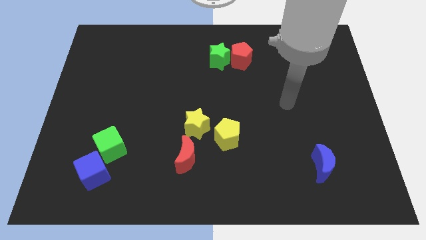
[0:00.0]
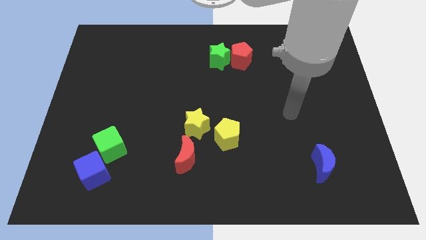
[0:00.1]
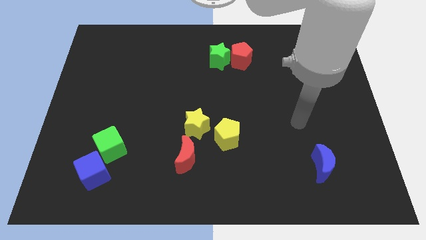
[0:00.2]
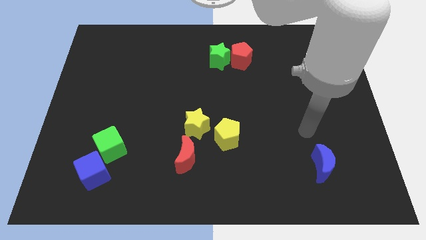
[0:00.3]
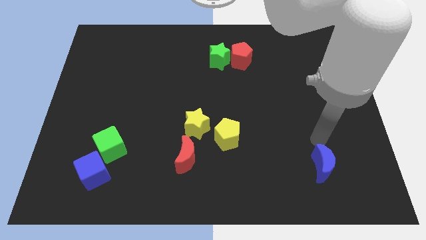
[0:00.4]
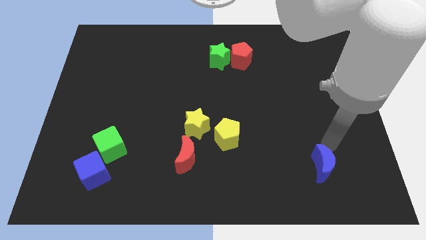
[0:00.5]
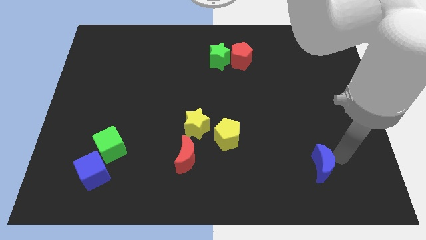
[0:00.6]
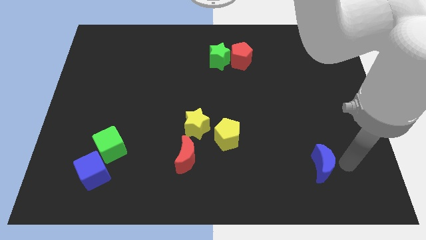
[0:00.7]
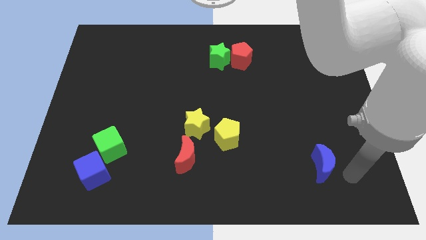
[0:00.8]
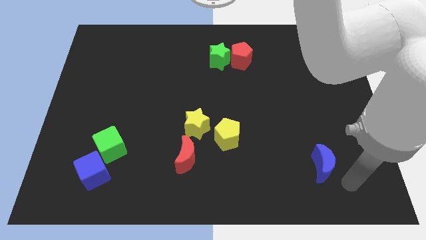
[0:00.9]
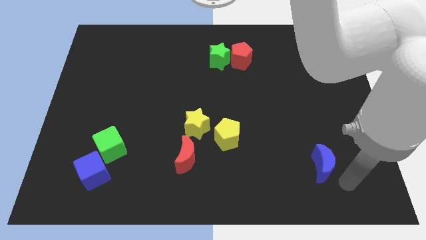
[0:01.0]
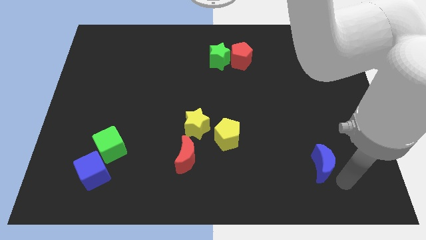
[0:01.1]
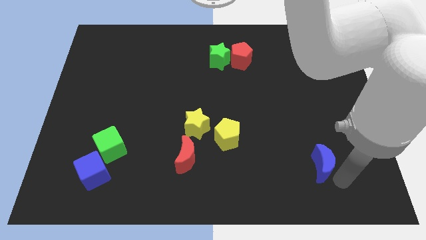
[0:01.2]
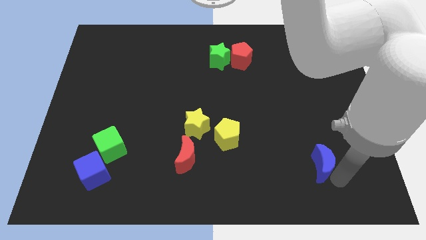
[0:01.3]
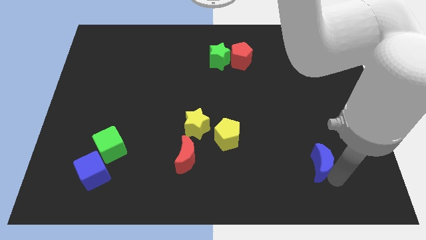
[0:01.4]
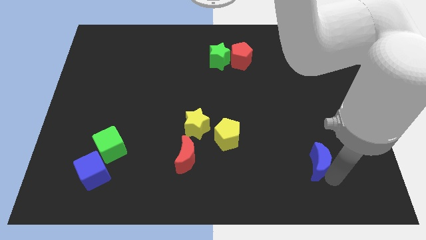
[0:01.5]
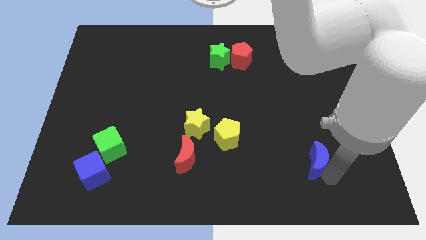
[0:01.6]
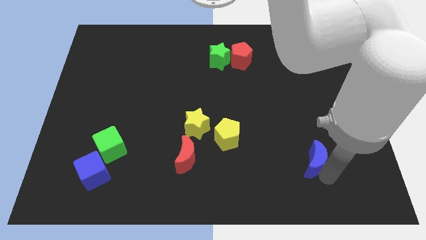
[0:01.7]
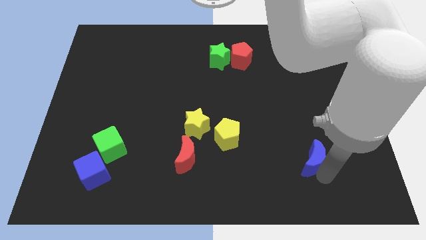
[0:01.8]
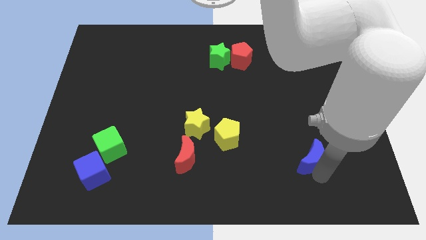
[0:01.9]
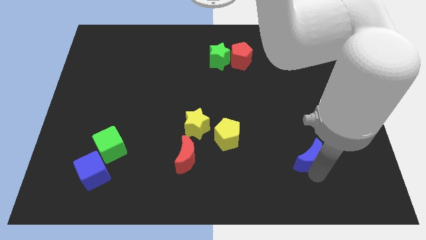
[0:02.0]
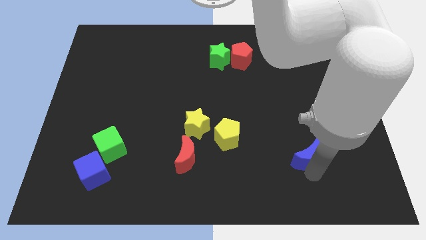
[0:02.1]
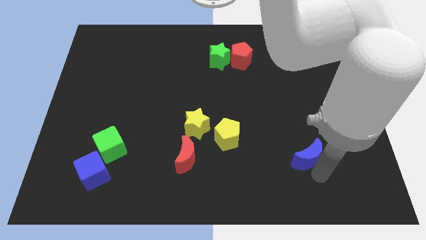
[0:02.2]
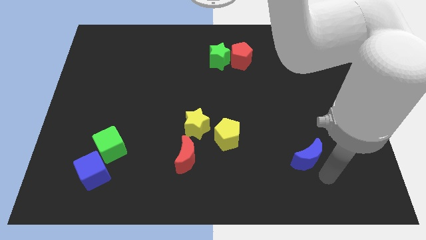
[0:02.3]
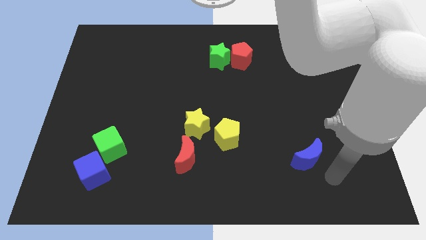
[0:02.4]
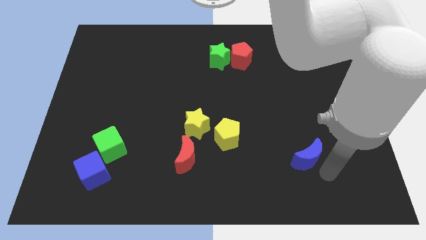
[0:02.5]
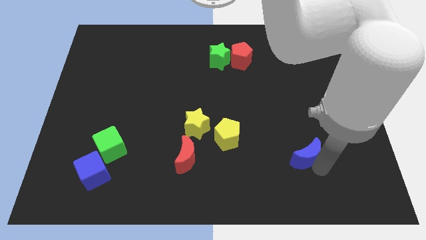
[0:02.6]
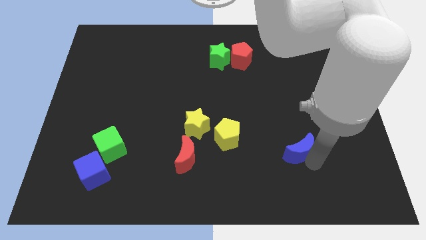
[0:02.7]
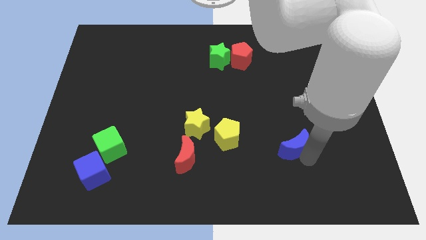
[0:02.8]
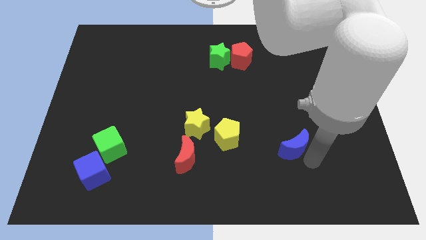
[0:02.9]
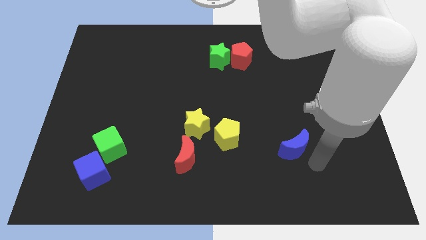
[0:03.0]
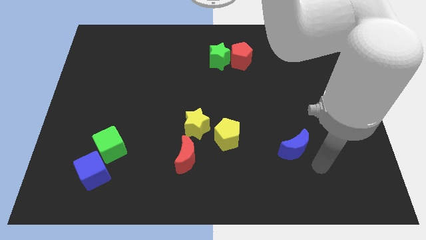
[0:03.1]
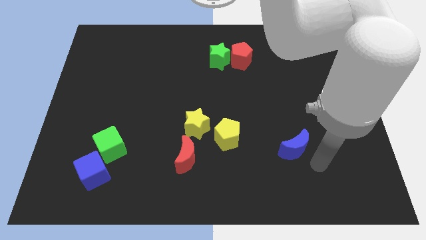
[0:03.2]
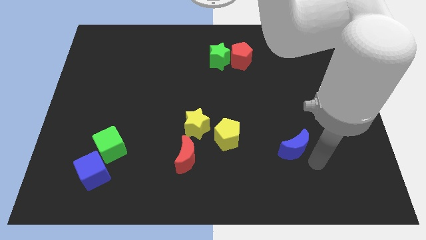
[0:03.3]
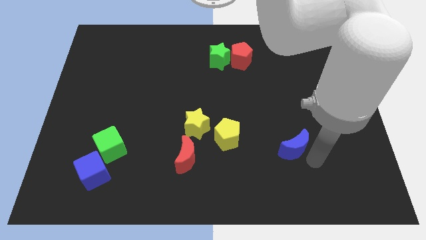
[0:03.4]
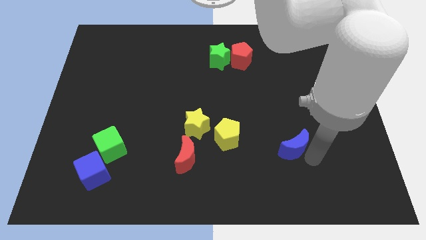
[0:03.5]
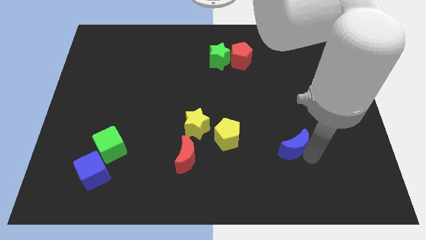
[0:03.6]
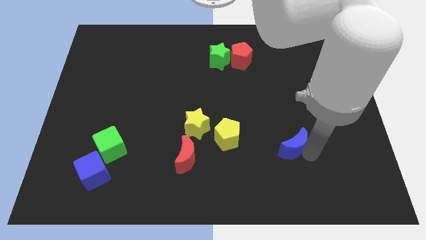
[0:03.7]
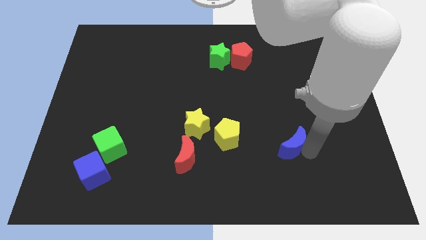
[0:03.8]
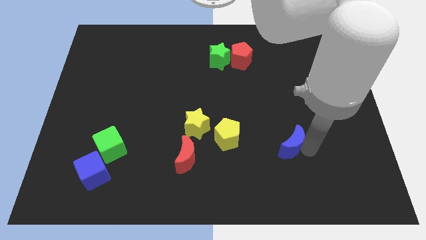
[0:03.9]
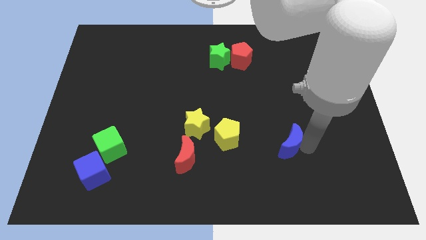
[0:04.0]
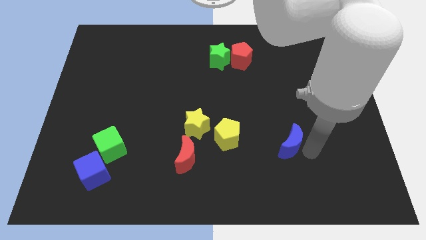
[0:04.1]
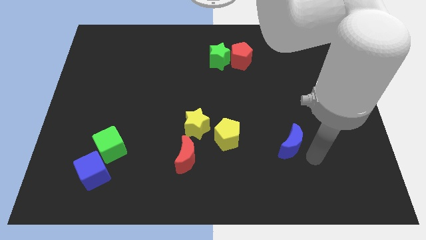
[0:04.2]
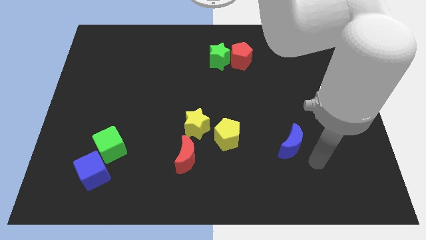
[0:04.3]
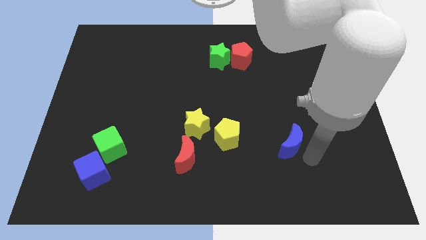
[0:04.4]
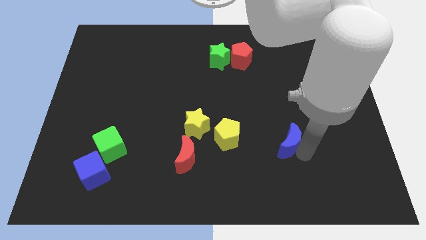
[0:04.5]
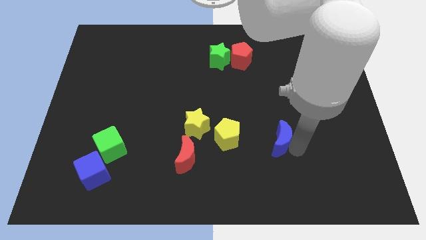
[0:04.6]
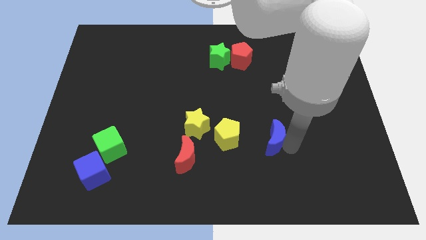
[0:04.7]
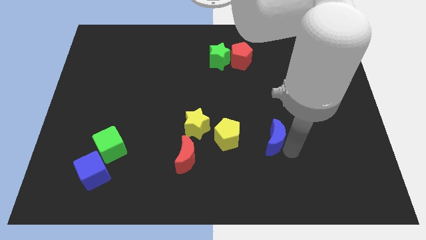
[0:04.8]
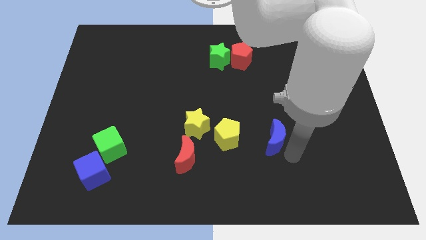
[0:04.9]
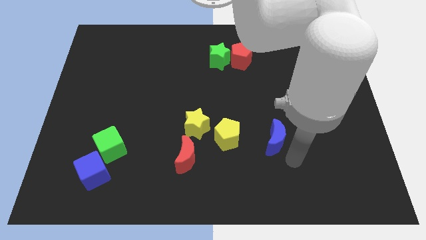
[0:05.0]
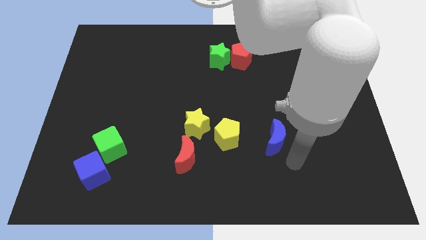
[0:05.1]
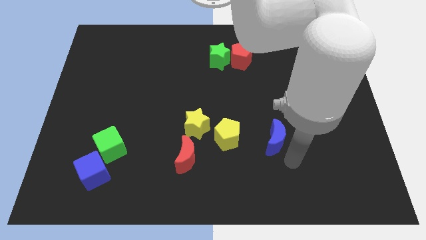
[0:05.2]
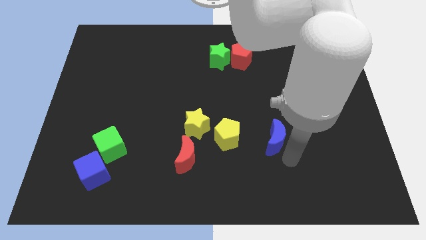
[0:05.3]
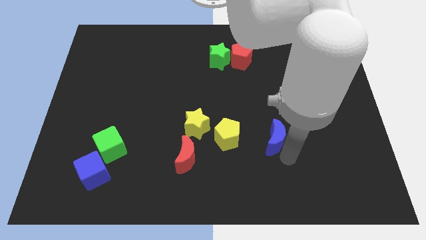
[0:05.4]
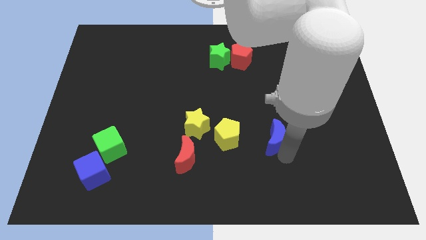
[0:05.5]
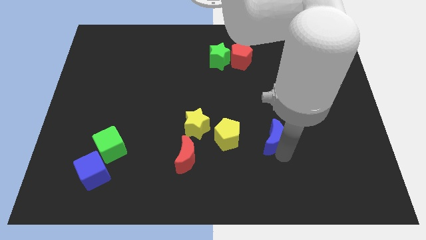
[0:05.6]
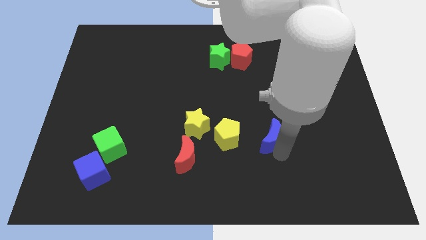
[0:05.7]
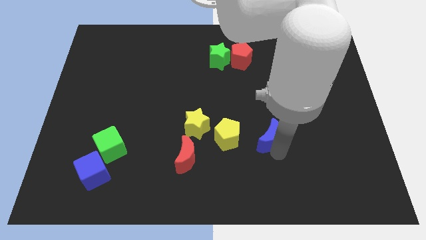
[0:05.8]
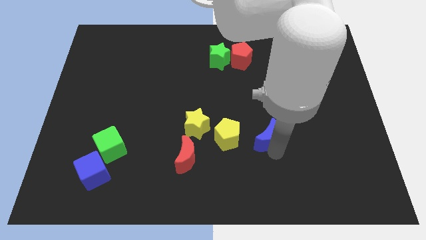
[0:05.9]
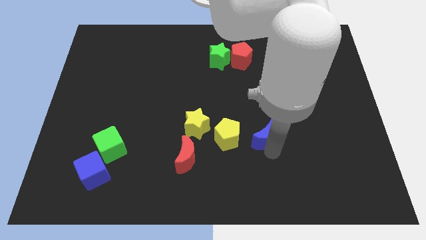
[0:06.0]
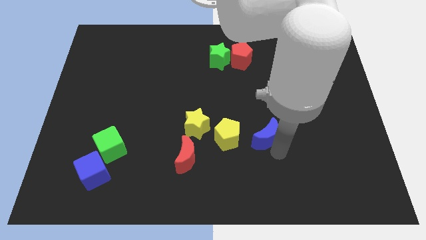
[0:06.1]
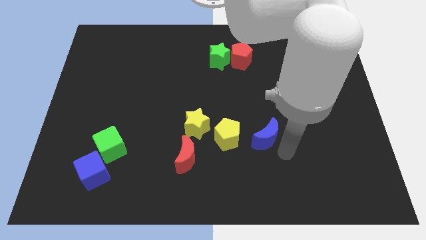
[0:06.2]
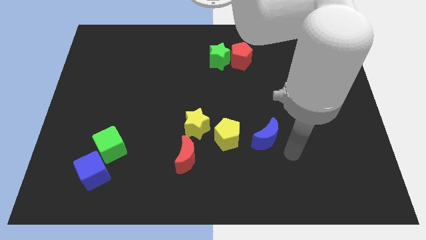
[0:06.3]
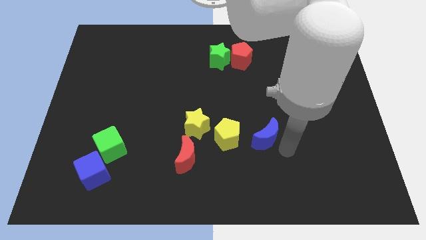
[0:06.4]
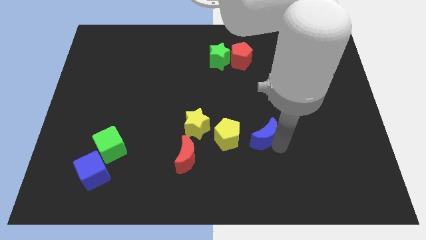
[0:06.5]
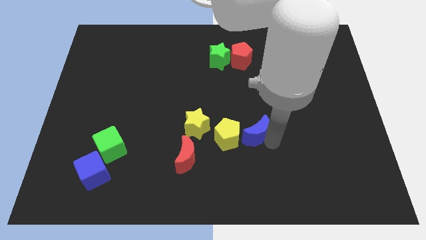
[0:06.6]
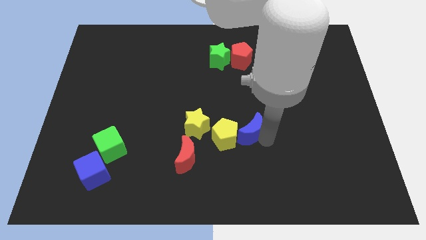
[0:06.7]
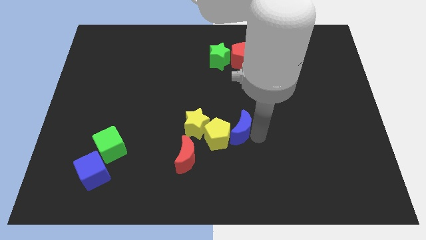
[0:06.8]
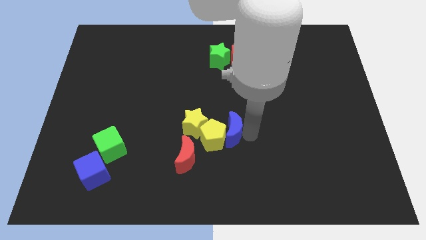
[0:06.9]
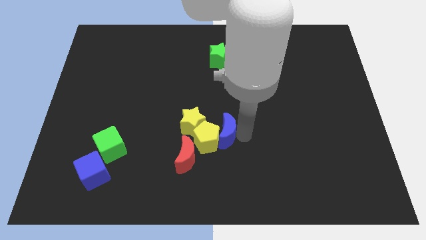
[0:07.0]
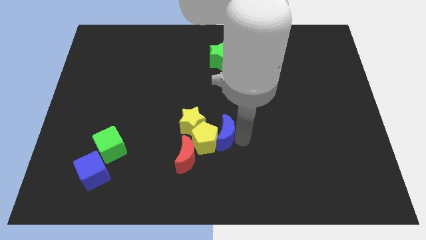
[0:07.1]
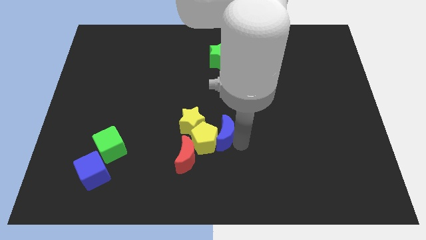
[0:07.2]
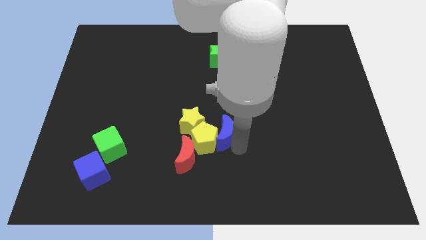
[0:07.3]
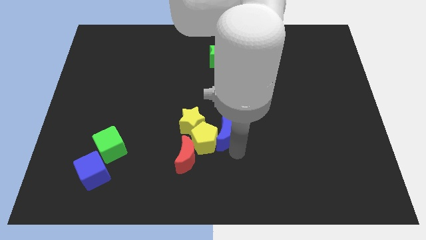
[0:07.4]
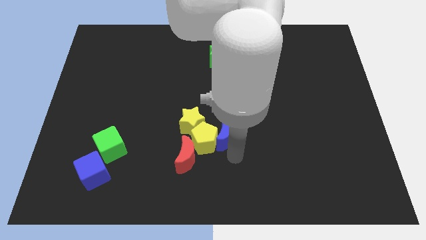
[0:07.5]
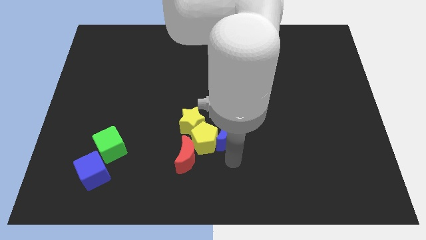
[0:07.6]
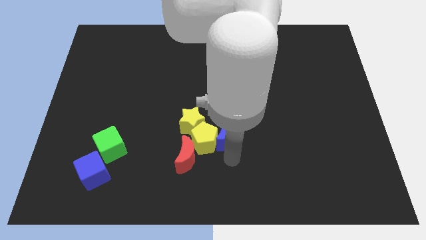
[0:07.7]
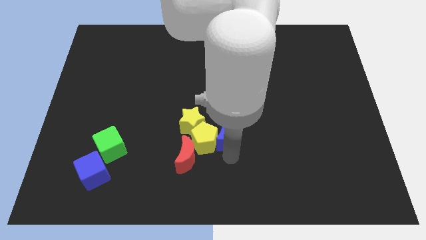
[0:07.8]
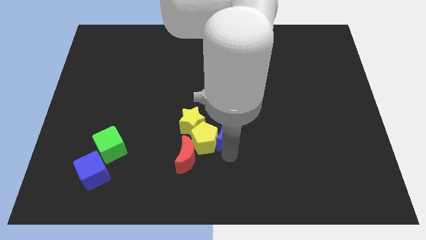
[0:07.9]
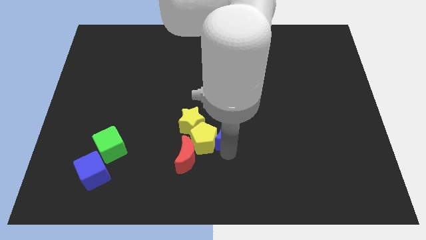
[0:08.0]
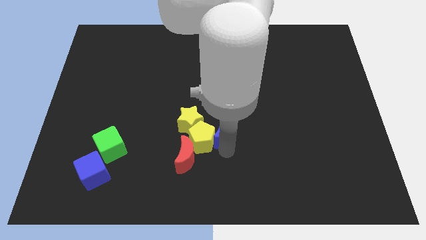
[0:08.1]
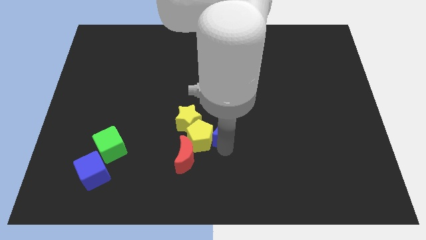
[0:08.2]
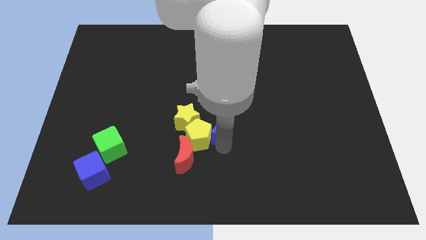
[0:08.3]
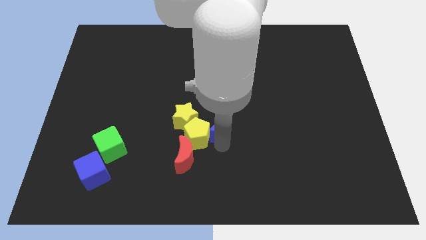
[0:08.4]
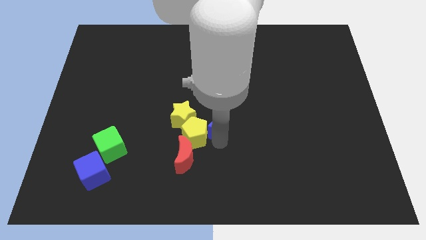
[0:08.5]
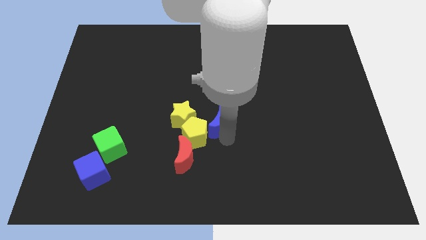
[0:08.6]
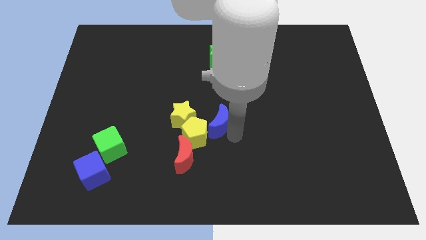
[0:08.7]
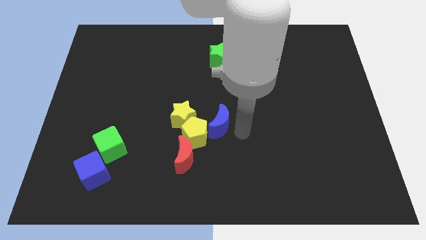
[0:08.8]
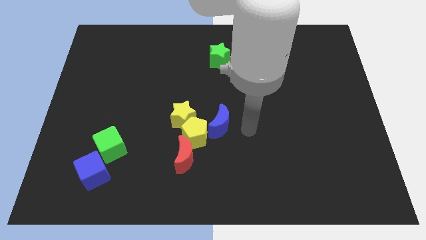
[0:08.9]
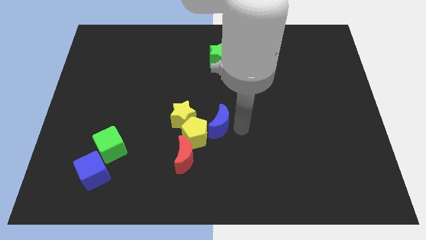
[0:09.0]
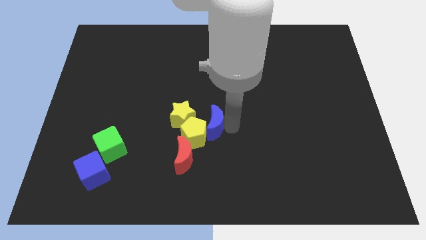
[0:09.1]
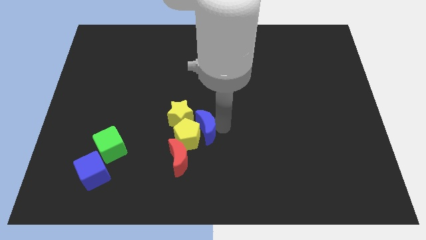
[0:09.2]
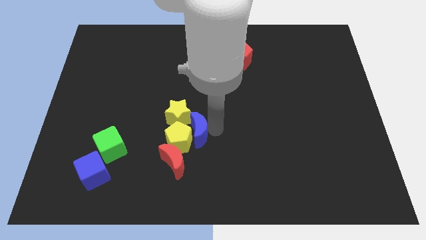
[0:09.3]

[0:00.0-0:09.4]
slide the blue moon towards the yellow star
